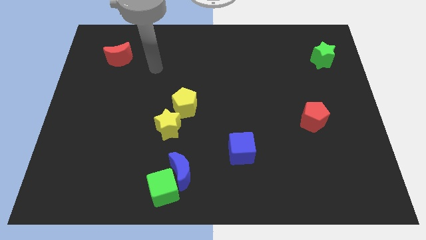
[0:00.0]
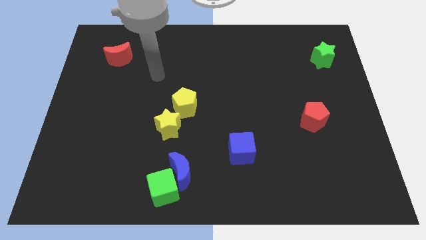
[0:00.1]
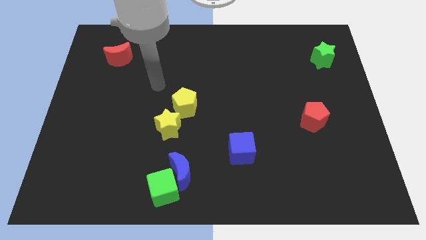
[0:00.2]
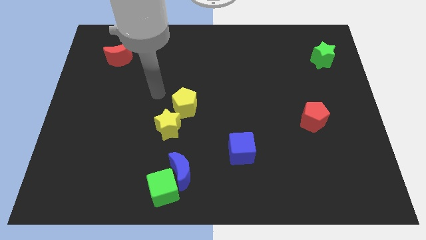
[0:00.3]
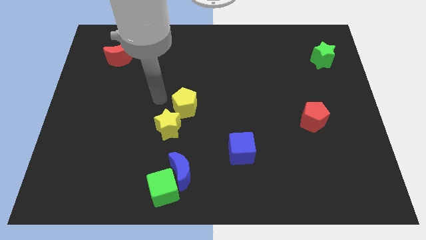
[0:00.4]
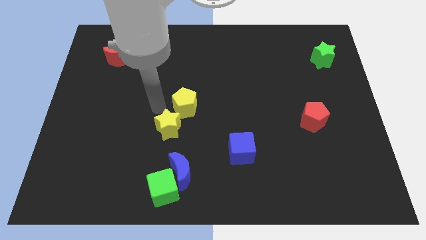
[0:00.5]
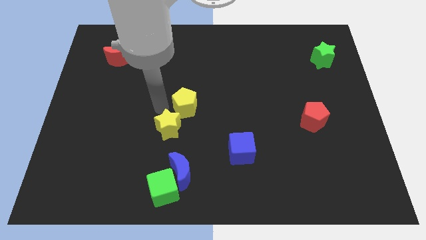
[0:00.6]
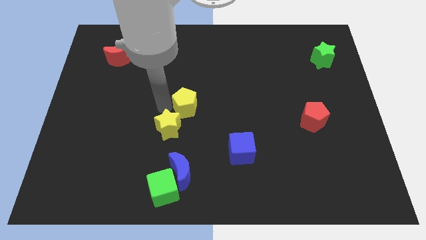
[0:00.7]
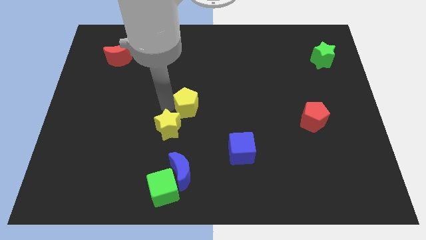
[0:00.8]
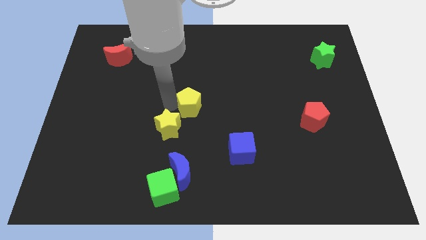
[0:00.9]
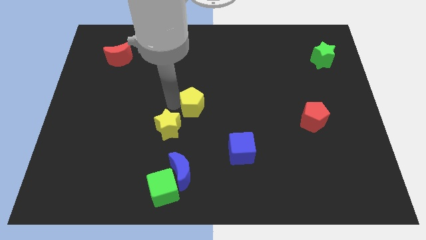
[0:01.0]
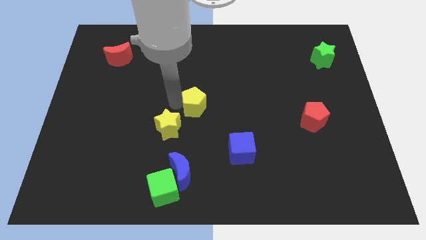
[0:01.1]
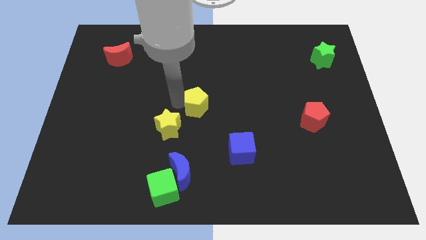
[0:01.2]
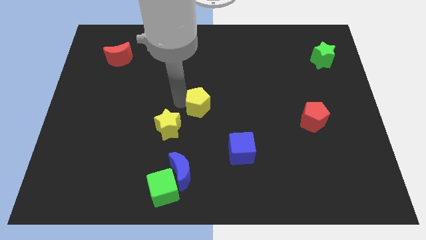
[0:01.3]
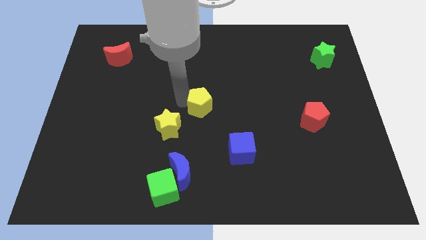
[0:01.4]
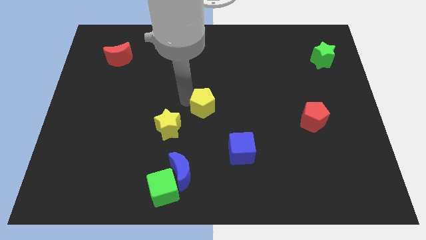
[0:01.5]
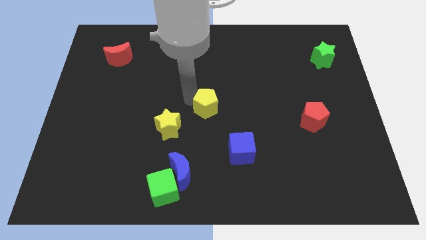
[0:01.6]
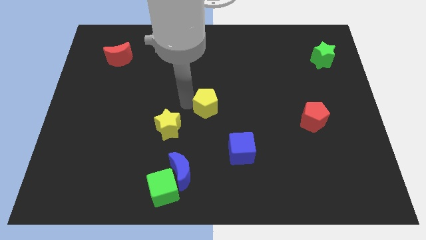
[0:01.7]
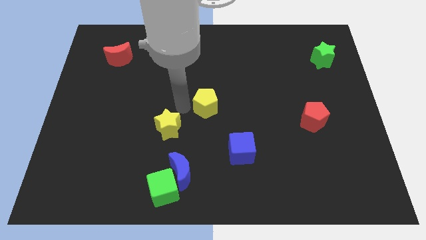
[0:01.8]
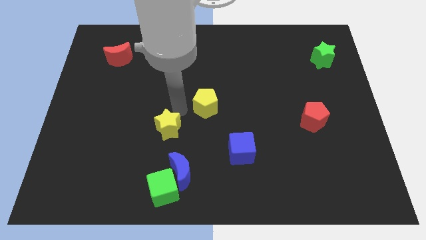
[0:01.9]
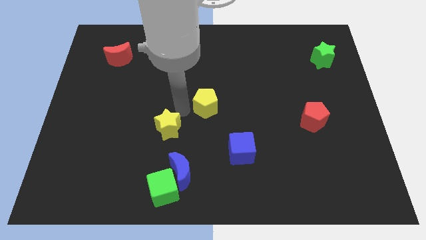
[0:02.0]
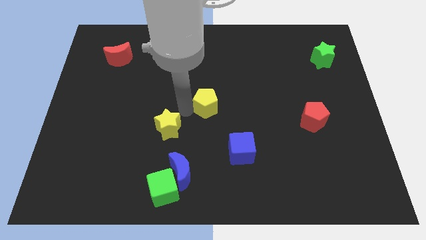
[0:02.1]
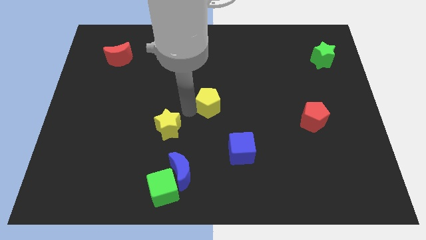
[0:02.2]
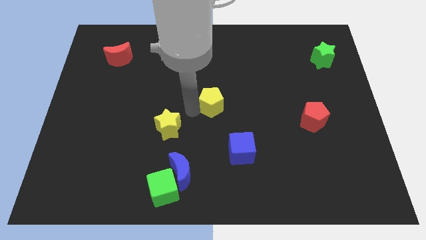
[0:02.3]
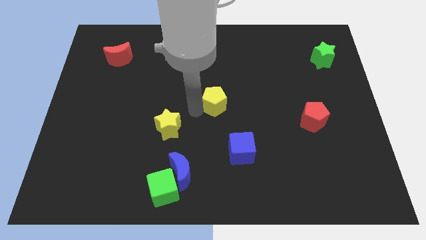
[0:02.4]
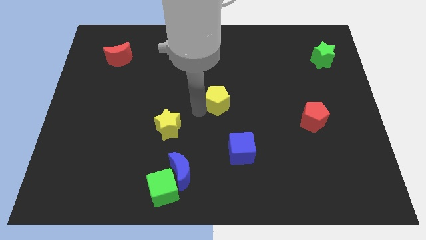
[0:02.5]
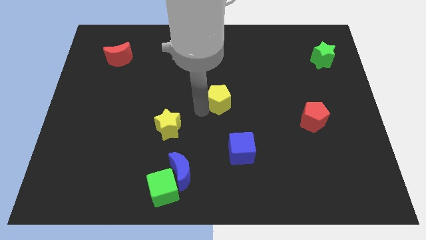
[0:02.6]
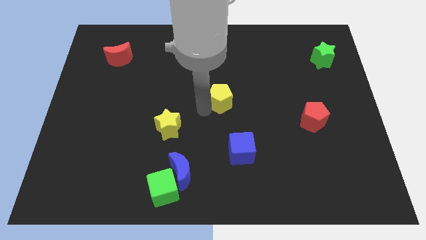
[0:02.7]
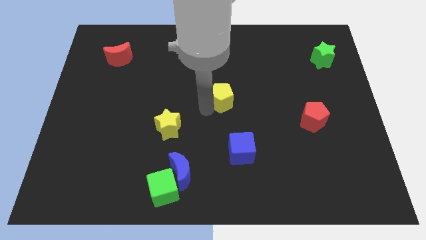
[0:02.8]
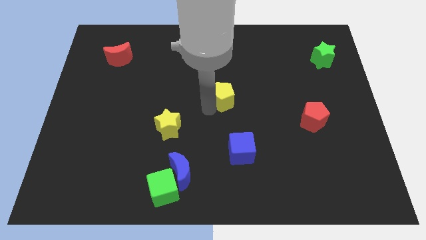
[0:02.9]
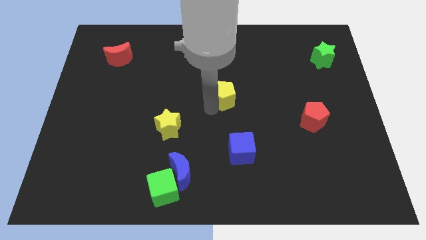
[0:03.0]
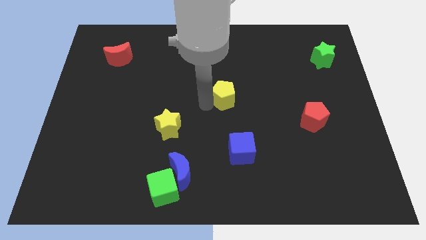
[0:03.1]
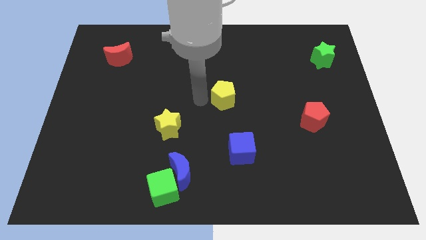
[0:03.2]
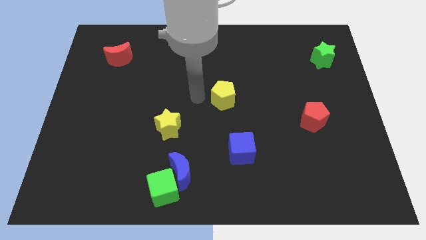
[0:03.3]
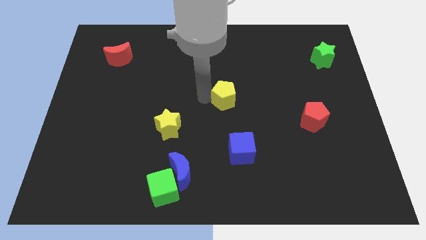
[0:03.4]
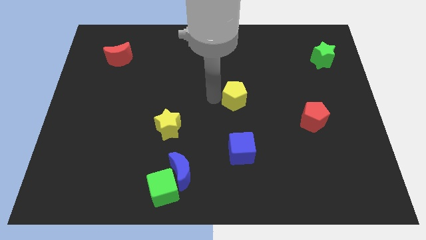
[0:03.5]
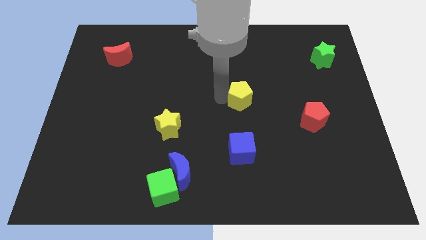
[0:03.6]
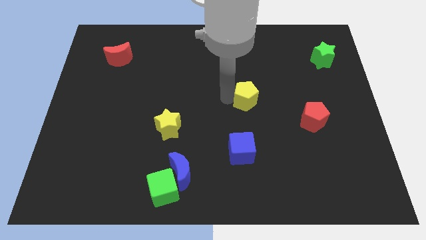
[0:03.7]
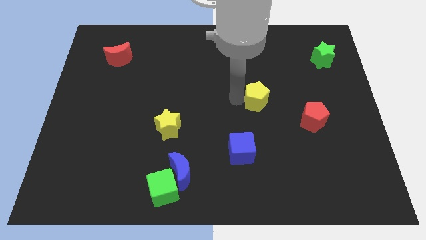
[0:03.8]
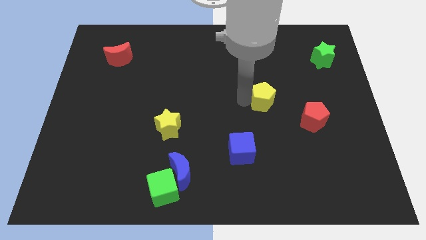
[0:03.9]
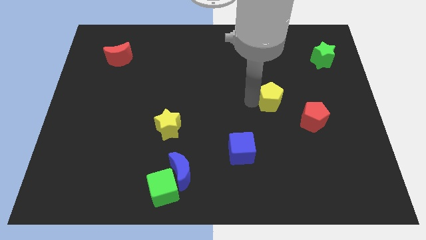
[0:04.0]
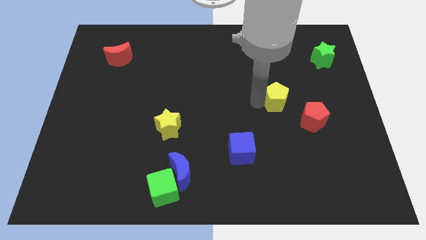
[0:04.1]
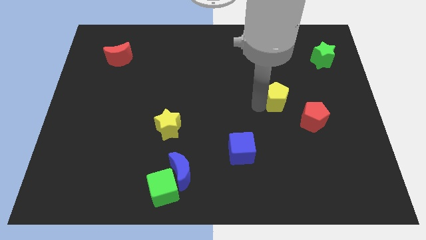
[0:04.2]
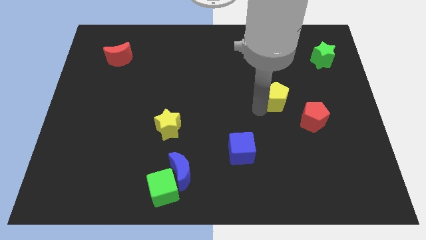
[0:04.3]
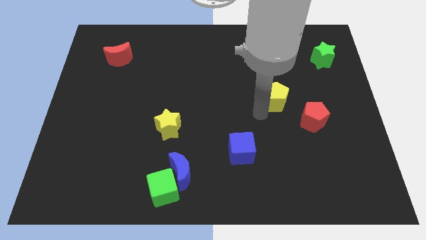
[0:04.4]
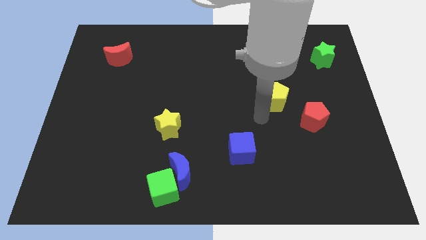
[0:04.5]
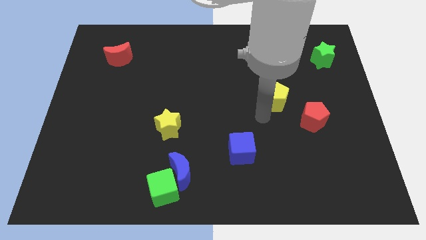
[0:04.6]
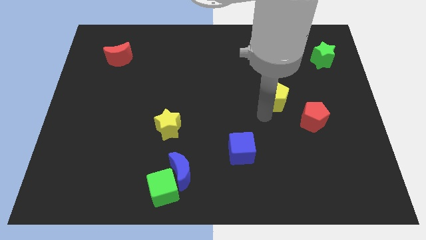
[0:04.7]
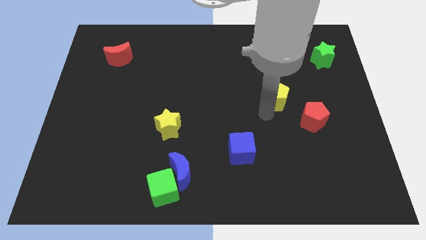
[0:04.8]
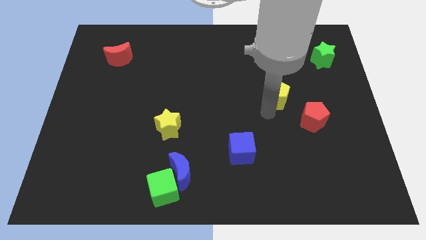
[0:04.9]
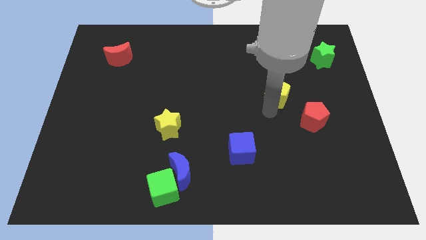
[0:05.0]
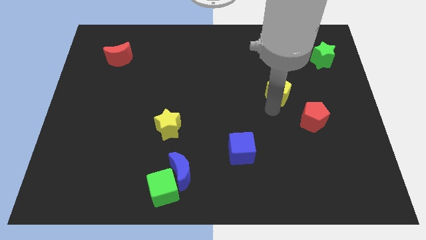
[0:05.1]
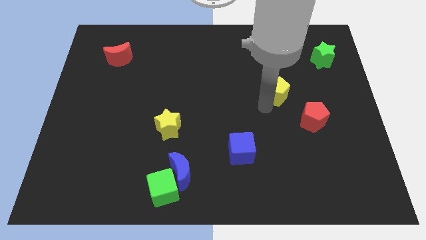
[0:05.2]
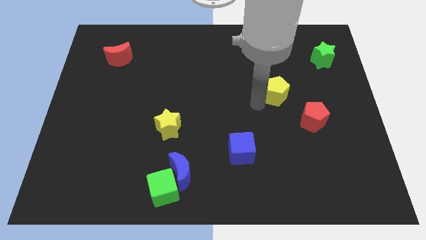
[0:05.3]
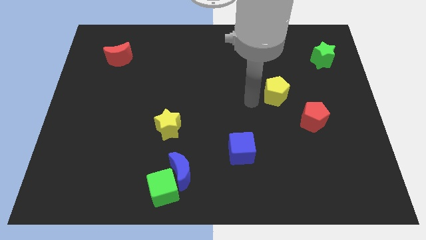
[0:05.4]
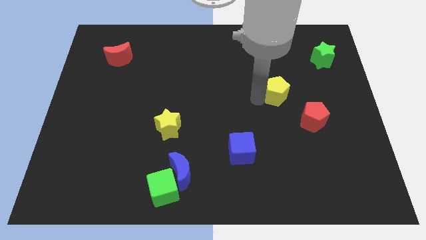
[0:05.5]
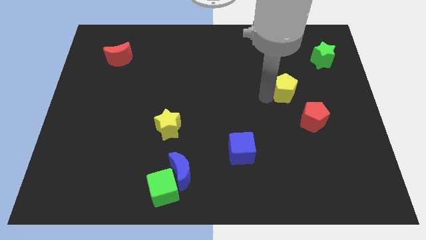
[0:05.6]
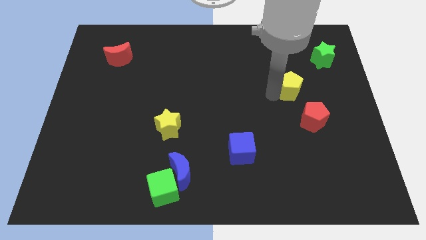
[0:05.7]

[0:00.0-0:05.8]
slide the yellow pentagon above the red pentagon

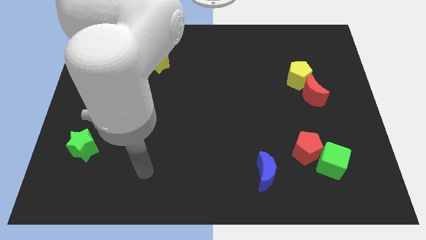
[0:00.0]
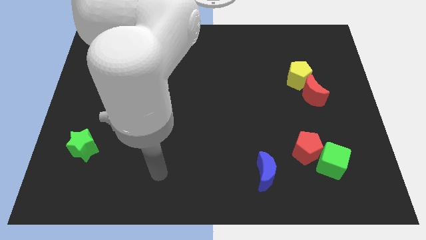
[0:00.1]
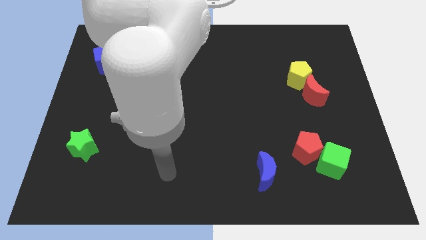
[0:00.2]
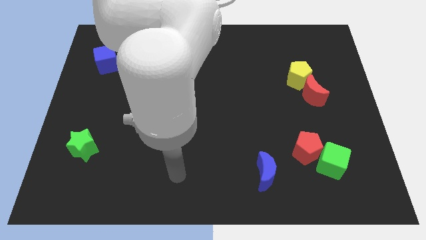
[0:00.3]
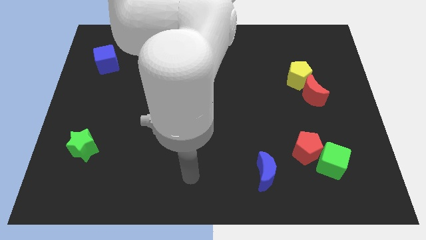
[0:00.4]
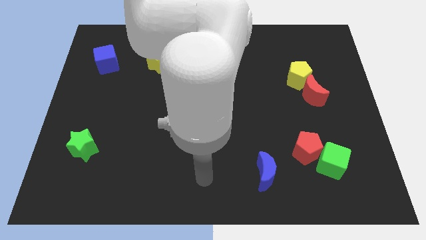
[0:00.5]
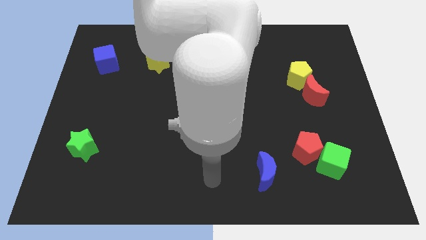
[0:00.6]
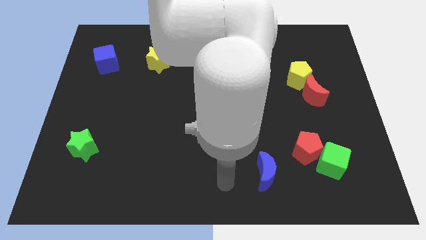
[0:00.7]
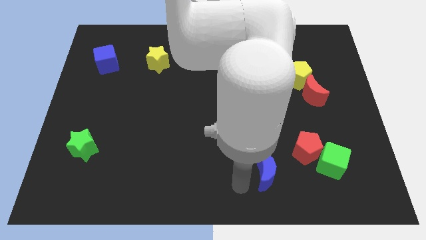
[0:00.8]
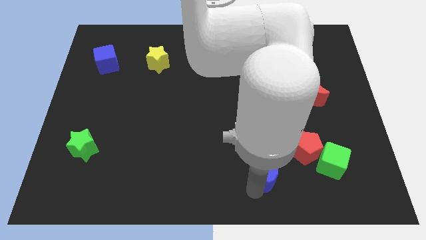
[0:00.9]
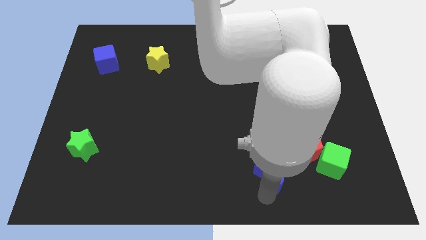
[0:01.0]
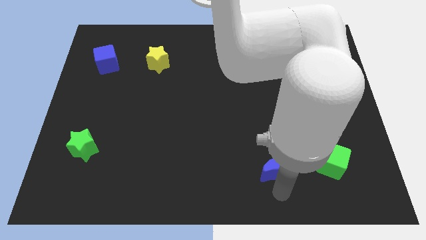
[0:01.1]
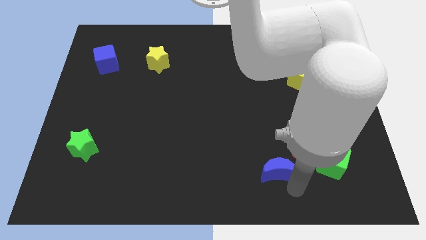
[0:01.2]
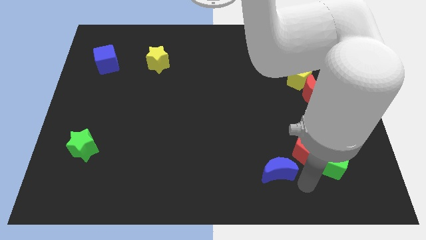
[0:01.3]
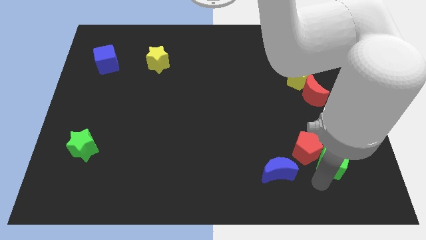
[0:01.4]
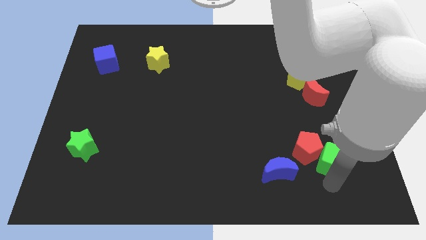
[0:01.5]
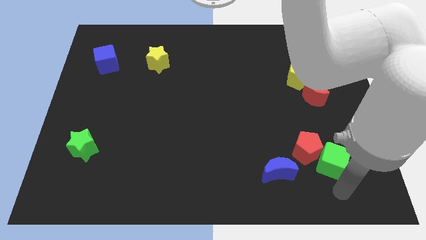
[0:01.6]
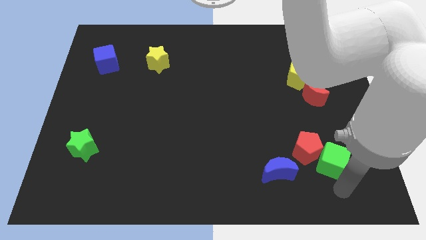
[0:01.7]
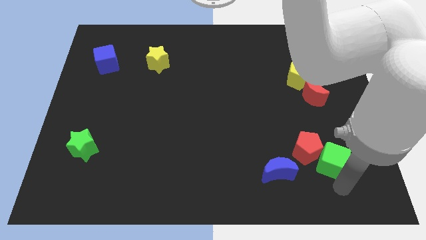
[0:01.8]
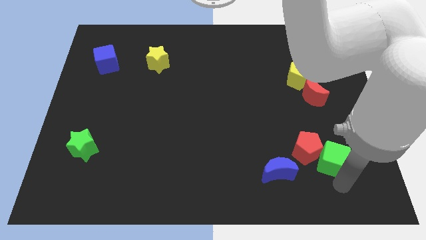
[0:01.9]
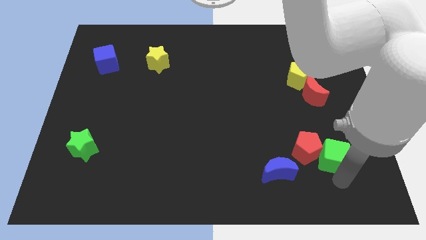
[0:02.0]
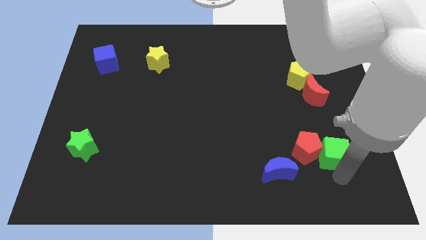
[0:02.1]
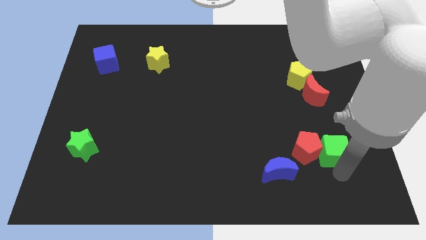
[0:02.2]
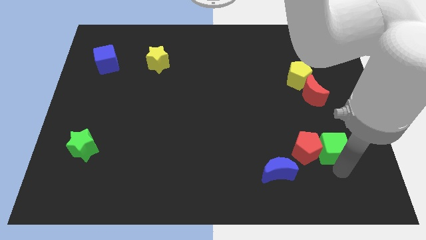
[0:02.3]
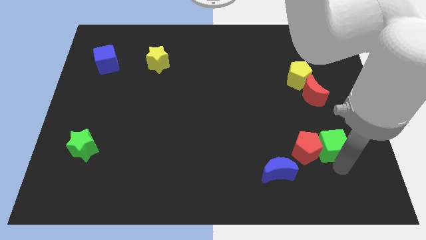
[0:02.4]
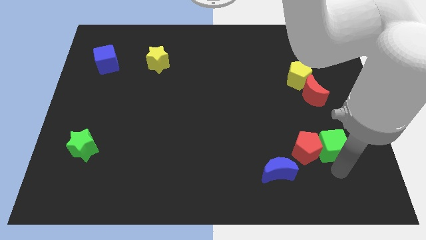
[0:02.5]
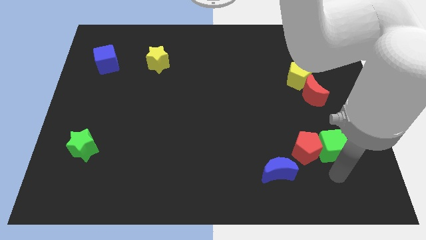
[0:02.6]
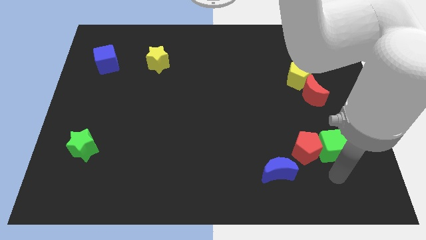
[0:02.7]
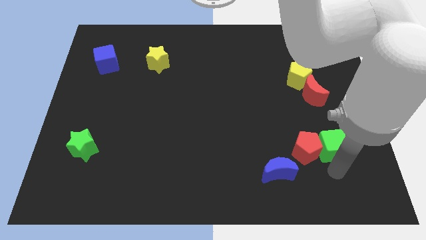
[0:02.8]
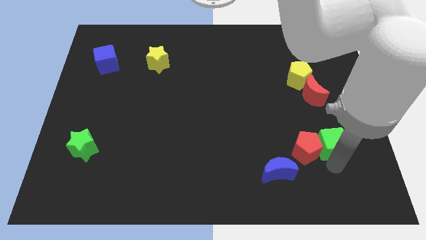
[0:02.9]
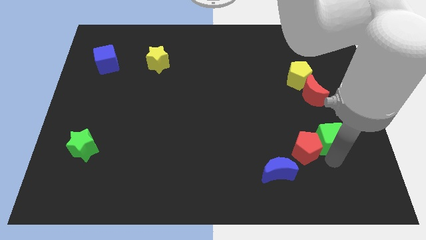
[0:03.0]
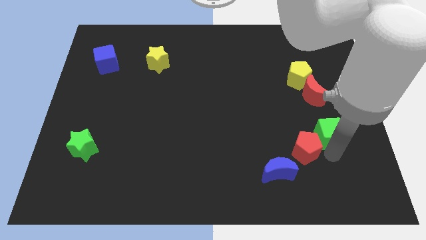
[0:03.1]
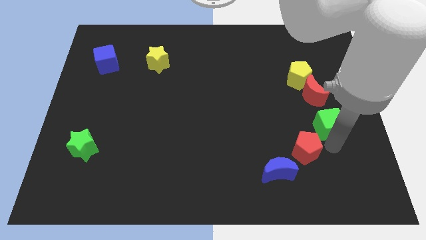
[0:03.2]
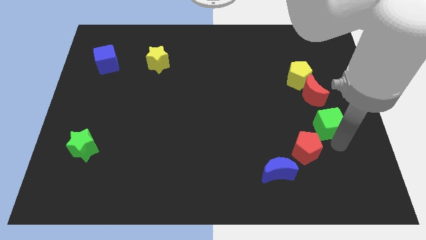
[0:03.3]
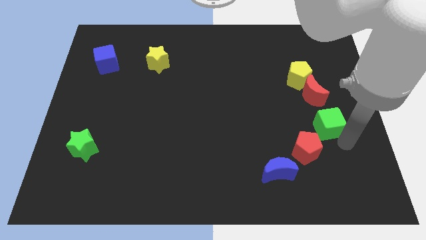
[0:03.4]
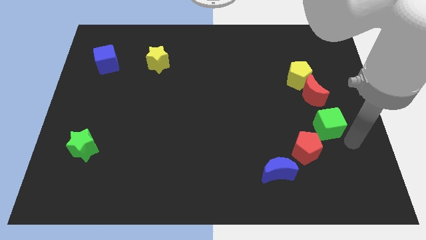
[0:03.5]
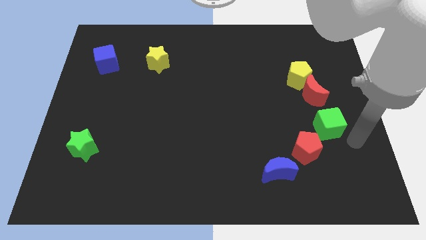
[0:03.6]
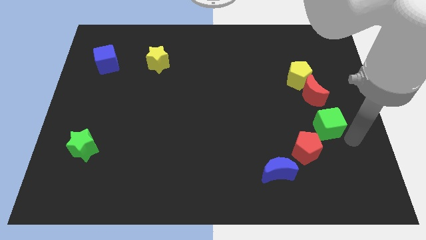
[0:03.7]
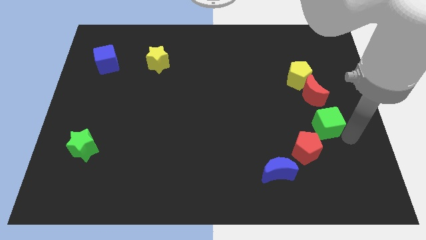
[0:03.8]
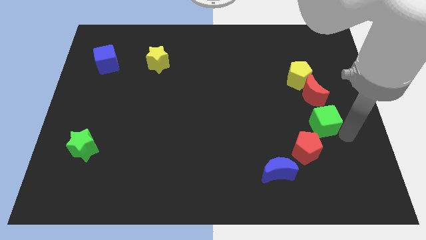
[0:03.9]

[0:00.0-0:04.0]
slide the green cube above the red pentagon
